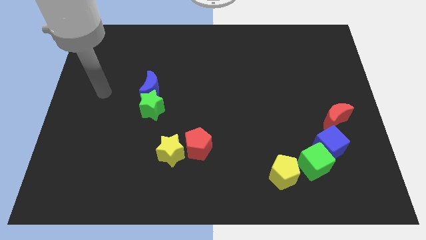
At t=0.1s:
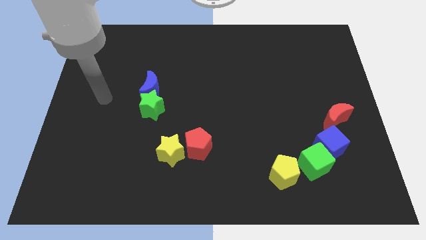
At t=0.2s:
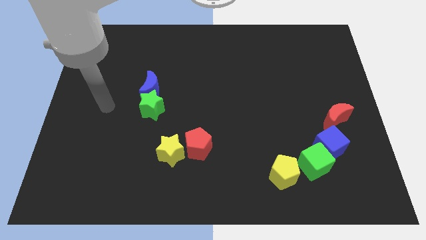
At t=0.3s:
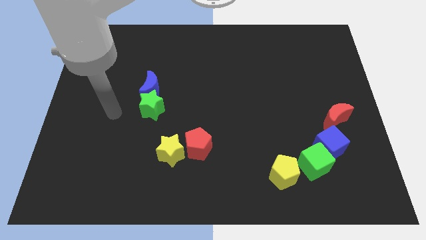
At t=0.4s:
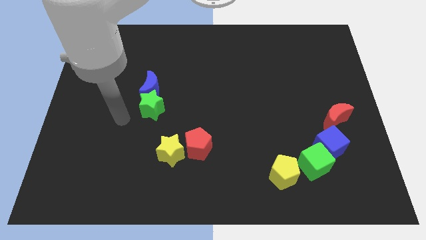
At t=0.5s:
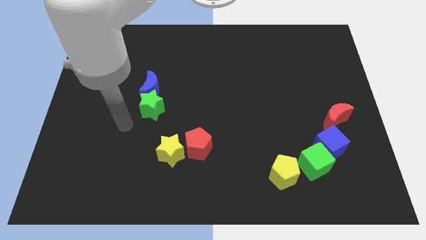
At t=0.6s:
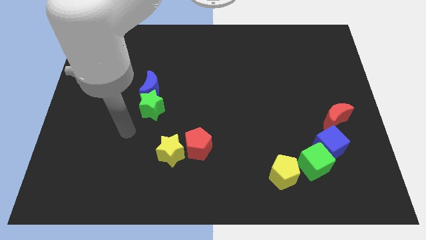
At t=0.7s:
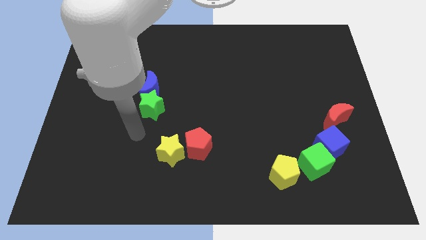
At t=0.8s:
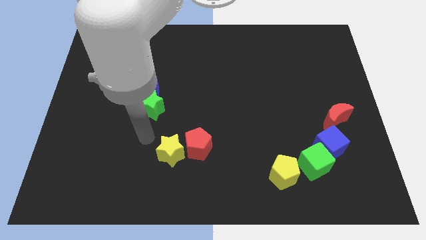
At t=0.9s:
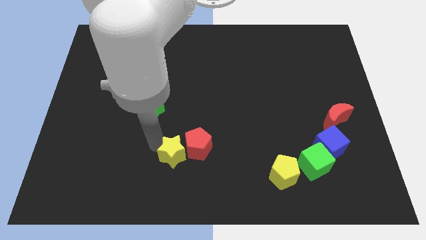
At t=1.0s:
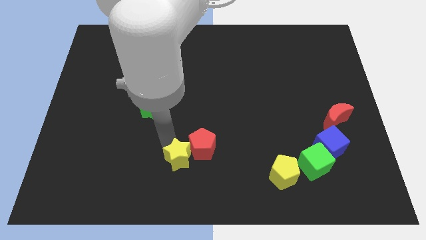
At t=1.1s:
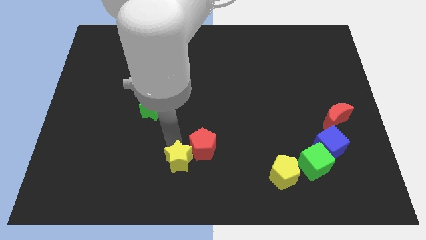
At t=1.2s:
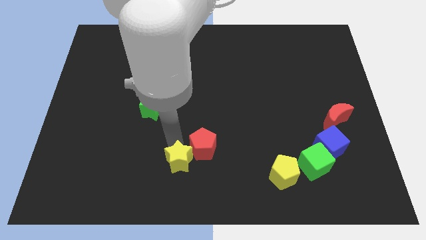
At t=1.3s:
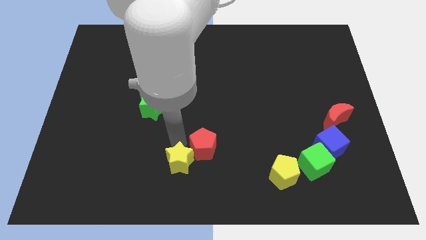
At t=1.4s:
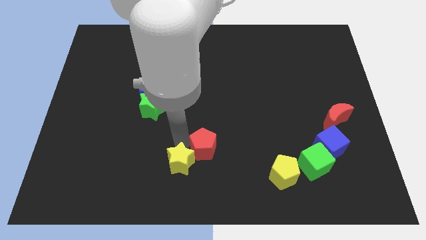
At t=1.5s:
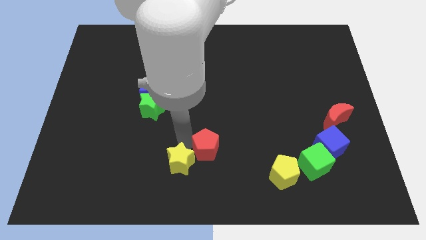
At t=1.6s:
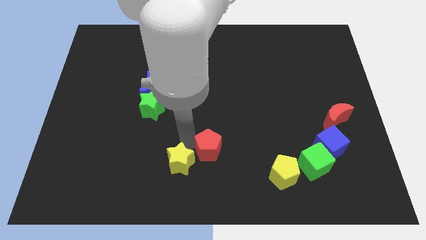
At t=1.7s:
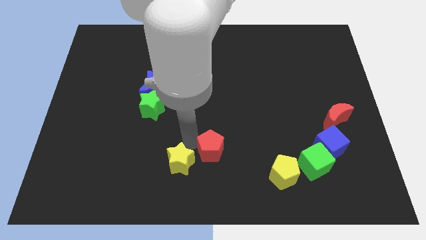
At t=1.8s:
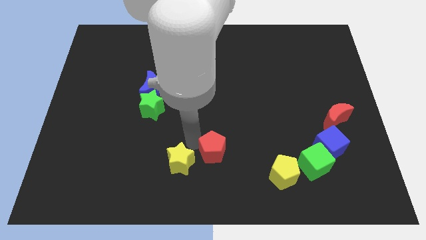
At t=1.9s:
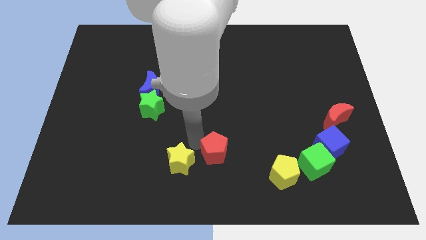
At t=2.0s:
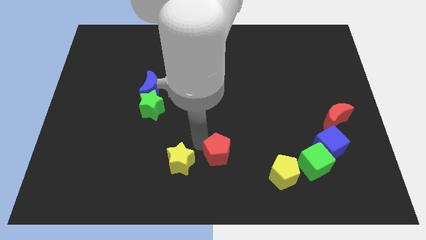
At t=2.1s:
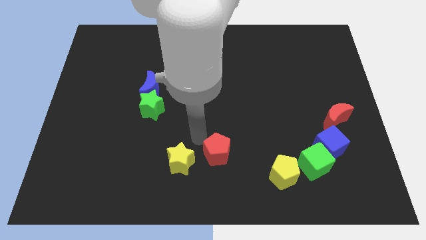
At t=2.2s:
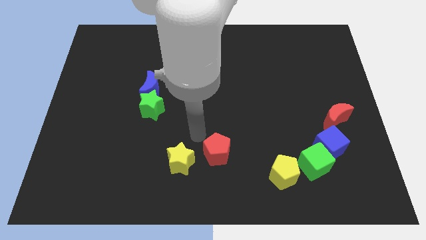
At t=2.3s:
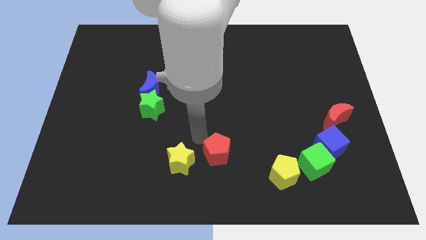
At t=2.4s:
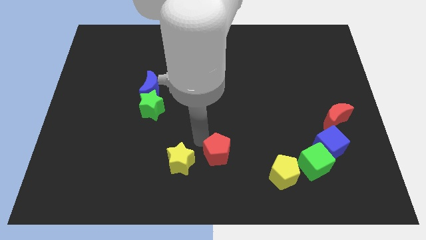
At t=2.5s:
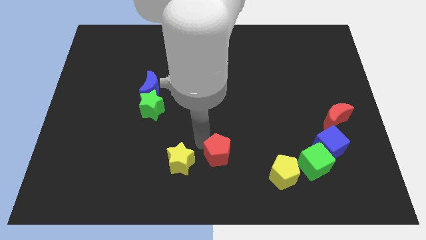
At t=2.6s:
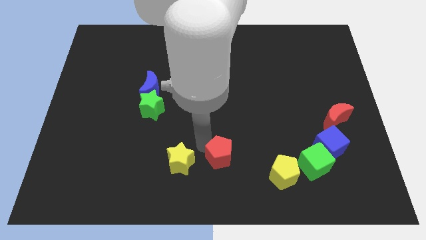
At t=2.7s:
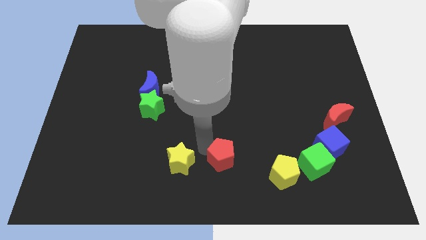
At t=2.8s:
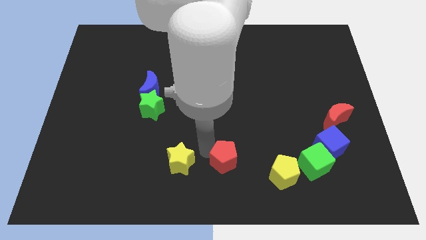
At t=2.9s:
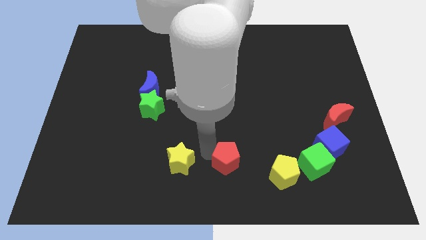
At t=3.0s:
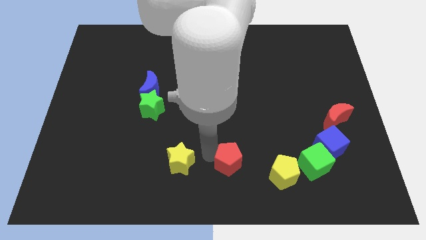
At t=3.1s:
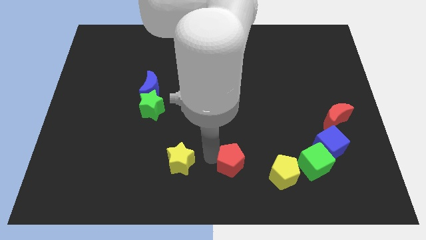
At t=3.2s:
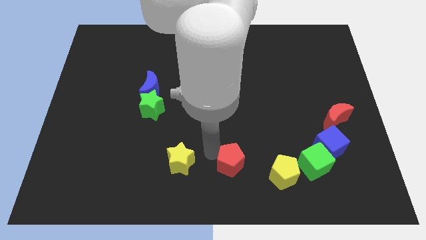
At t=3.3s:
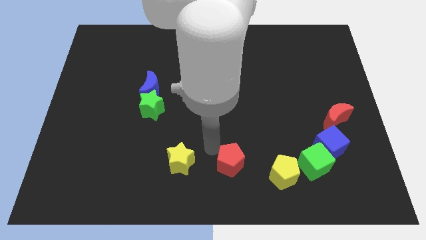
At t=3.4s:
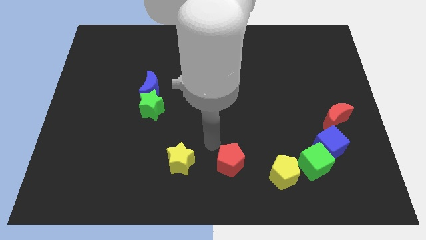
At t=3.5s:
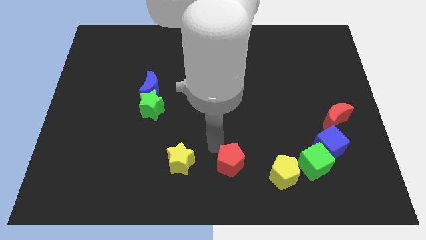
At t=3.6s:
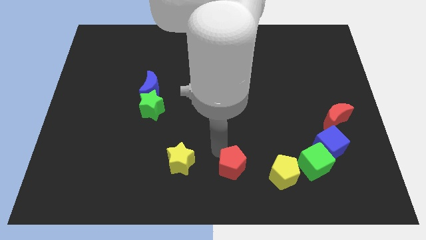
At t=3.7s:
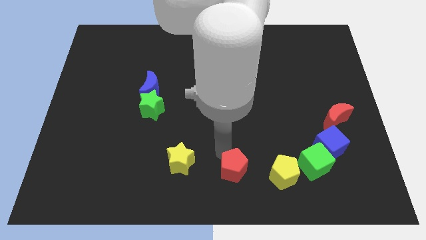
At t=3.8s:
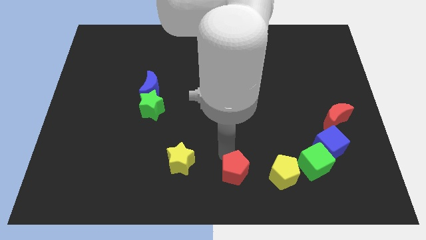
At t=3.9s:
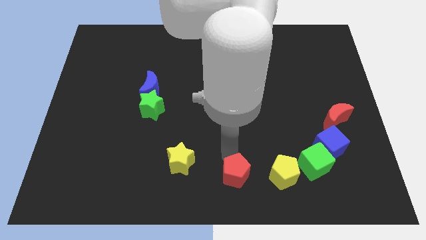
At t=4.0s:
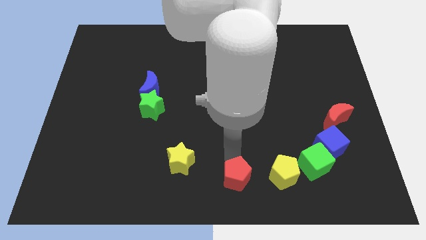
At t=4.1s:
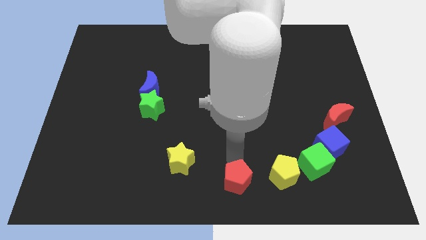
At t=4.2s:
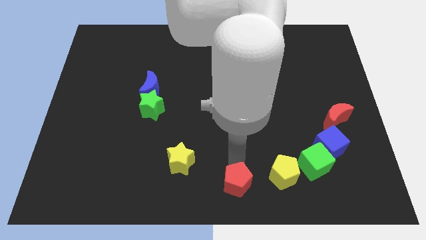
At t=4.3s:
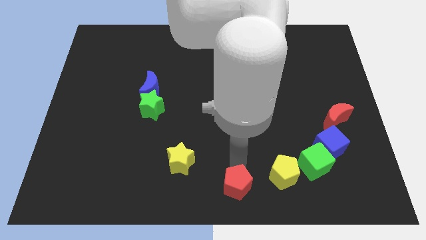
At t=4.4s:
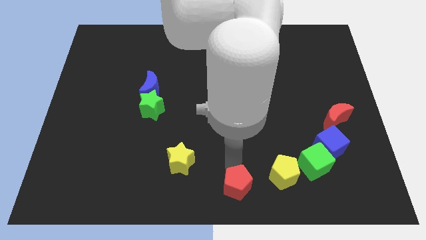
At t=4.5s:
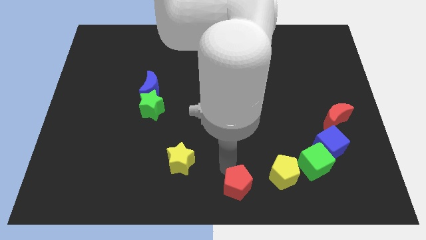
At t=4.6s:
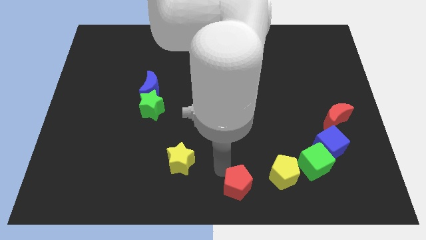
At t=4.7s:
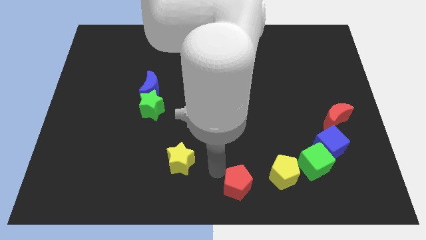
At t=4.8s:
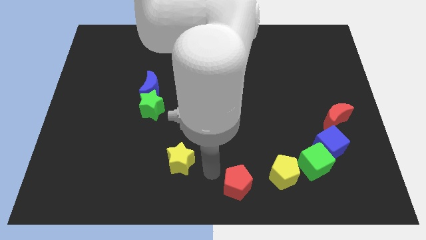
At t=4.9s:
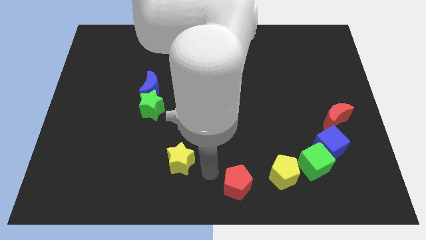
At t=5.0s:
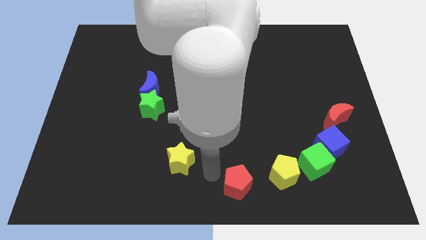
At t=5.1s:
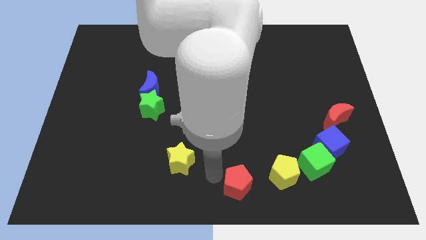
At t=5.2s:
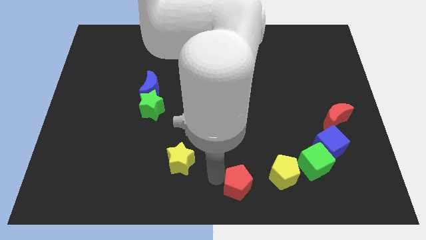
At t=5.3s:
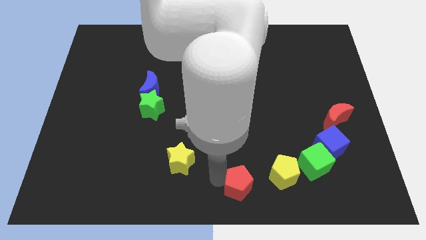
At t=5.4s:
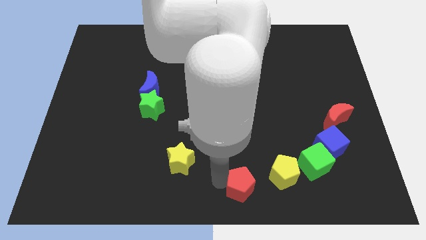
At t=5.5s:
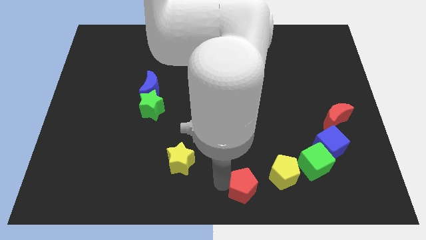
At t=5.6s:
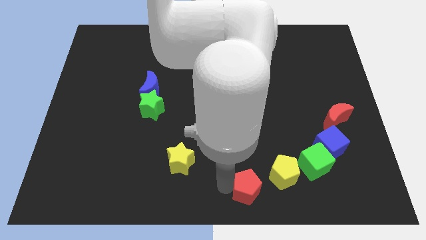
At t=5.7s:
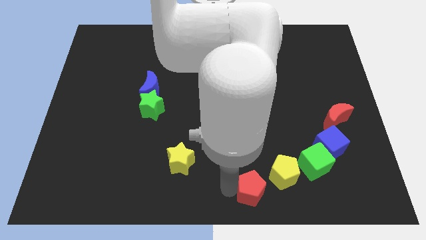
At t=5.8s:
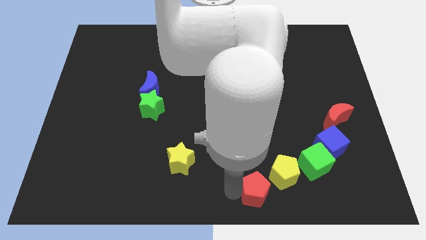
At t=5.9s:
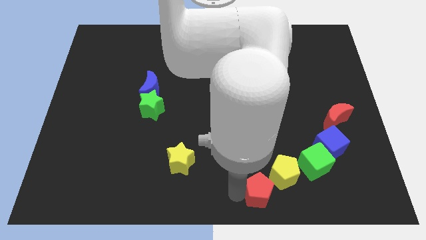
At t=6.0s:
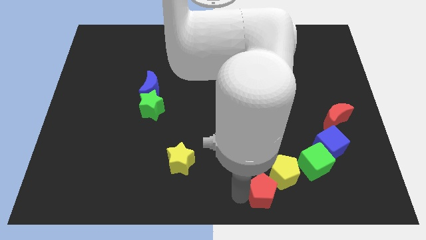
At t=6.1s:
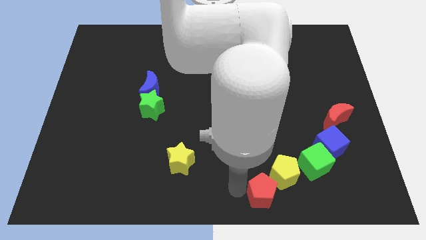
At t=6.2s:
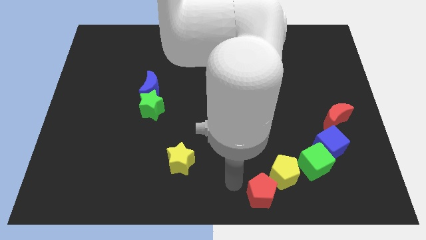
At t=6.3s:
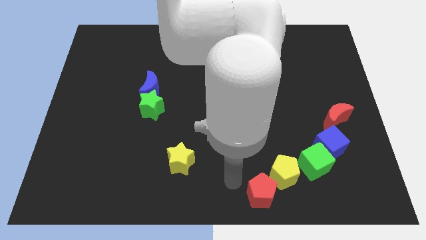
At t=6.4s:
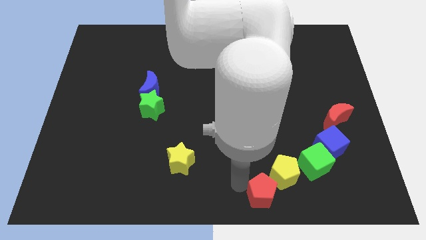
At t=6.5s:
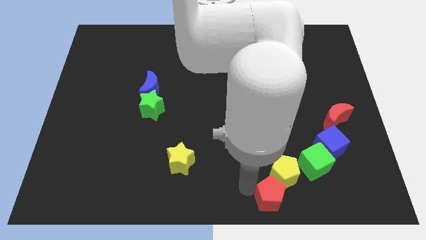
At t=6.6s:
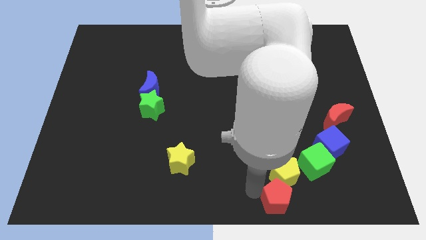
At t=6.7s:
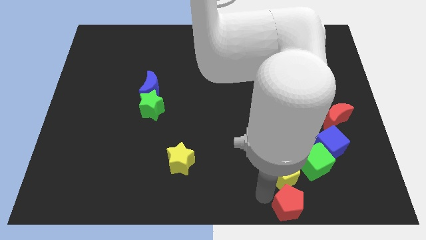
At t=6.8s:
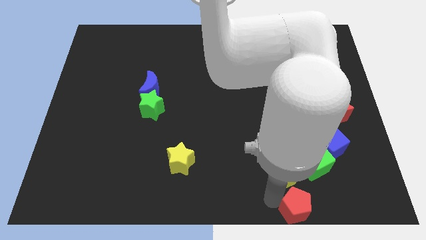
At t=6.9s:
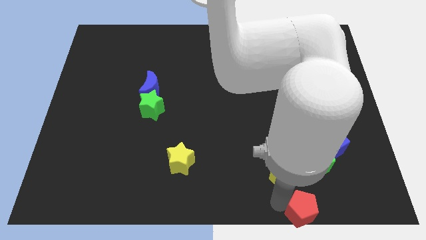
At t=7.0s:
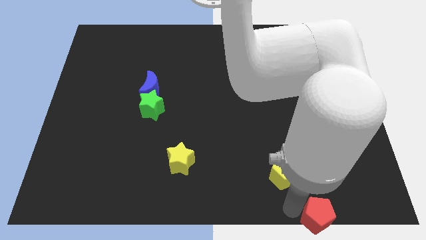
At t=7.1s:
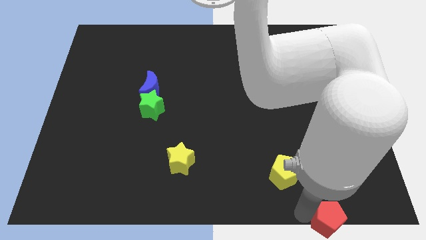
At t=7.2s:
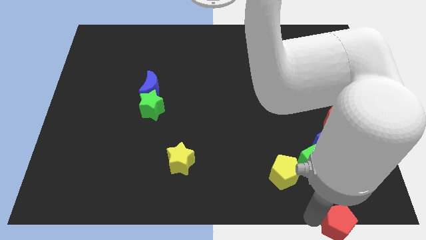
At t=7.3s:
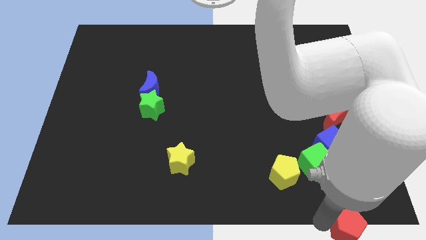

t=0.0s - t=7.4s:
move the red pentagon to the bottom right
